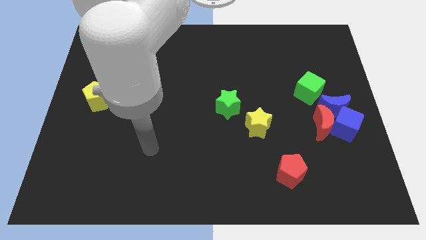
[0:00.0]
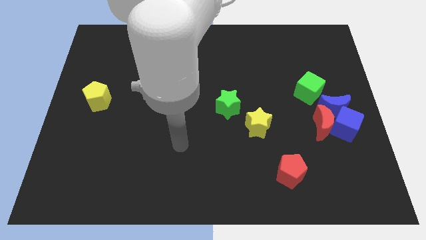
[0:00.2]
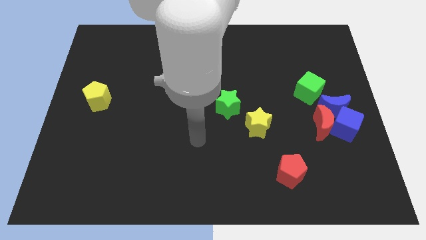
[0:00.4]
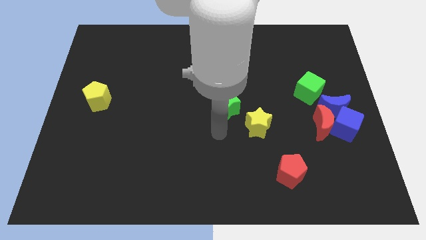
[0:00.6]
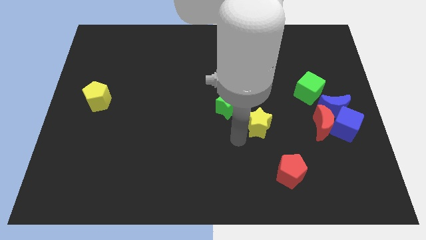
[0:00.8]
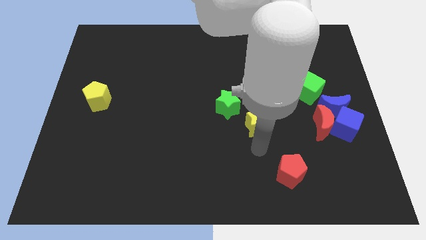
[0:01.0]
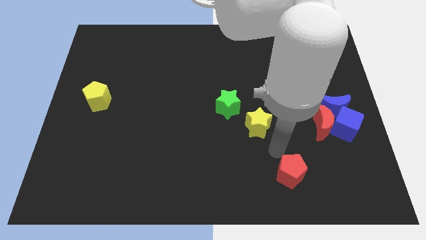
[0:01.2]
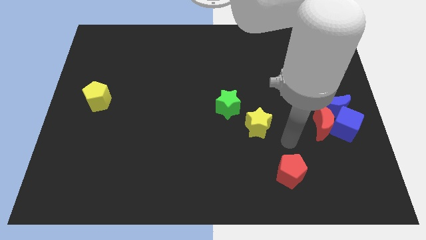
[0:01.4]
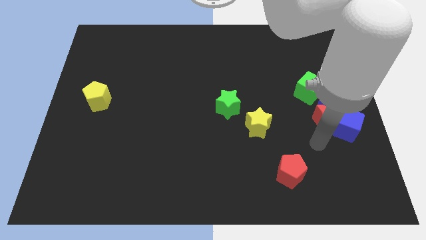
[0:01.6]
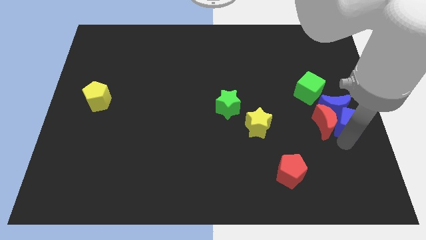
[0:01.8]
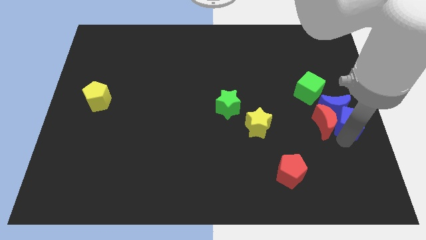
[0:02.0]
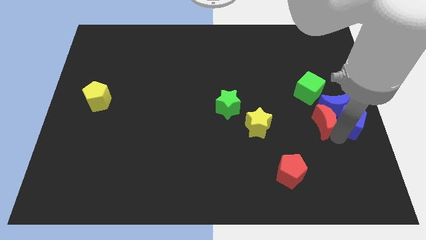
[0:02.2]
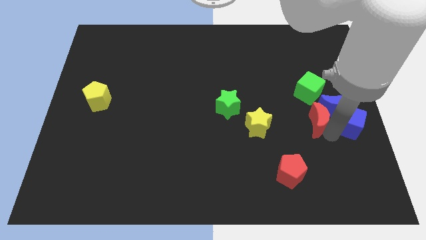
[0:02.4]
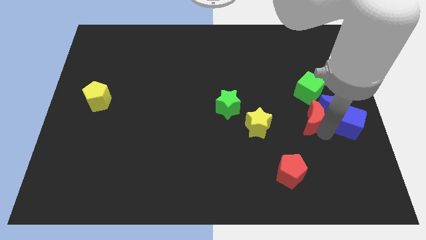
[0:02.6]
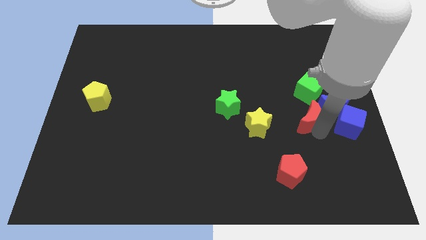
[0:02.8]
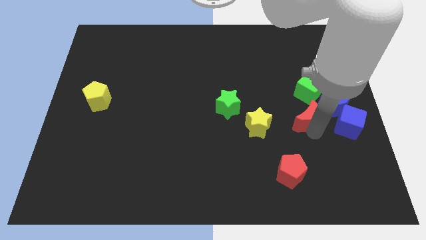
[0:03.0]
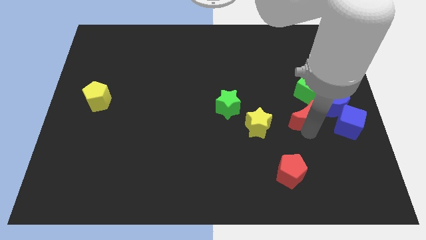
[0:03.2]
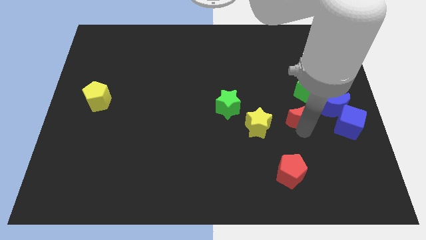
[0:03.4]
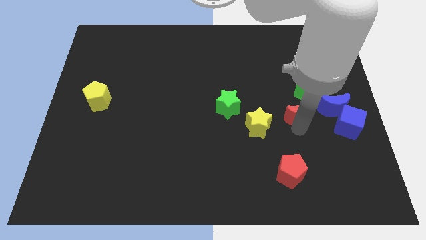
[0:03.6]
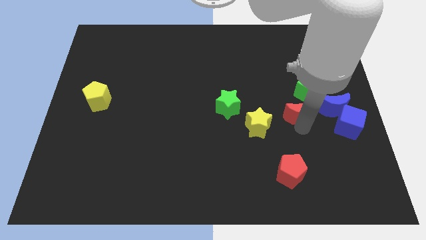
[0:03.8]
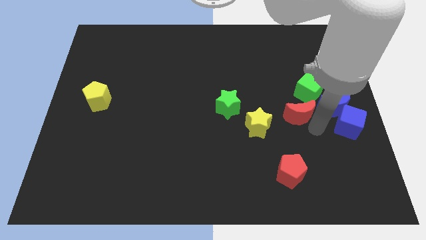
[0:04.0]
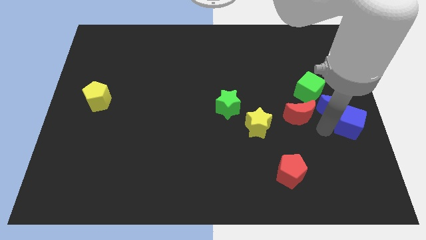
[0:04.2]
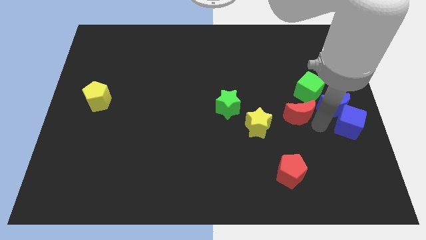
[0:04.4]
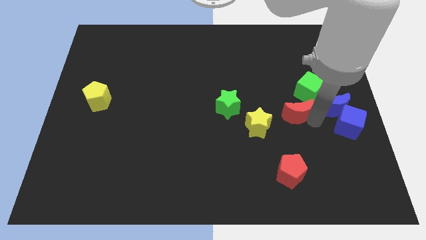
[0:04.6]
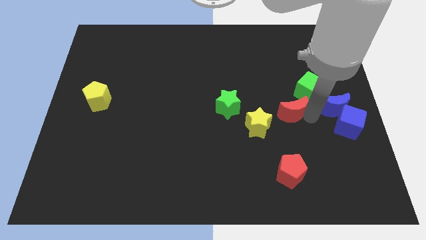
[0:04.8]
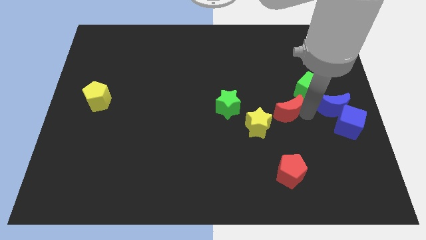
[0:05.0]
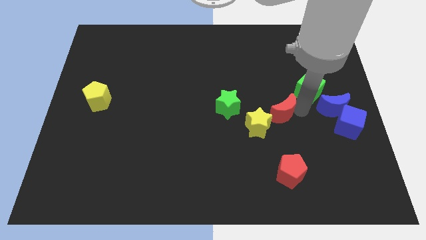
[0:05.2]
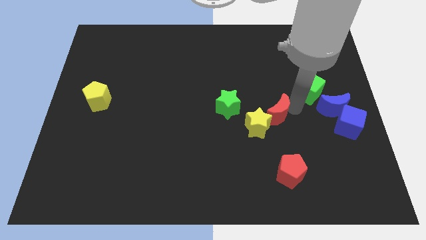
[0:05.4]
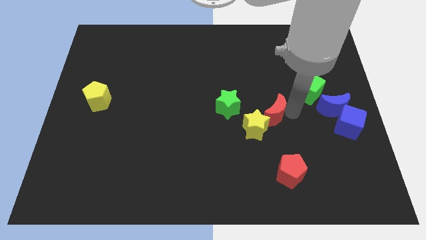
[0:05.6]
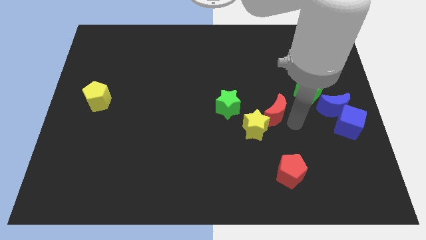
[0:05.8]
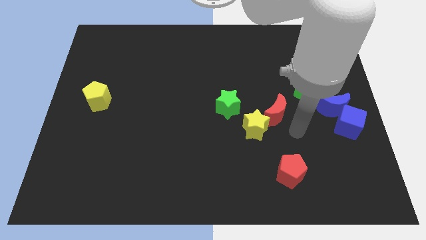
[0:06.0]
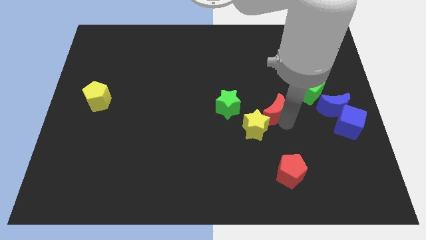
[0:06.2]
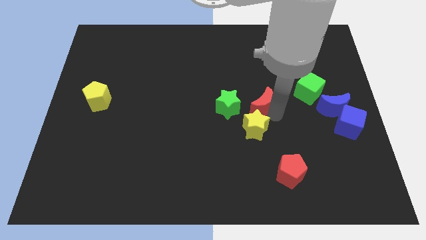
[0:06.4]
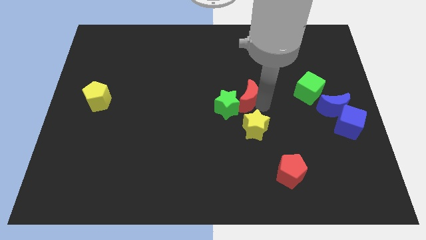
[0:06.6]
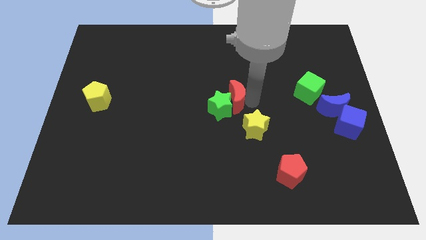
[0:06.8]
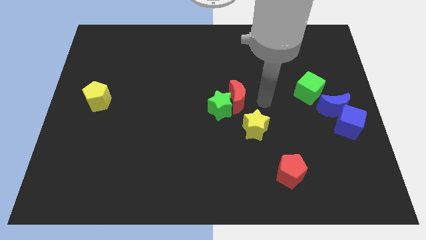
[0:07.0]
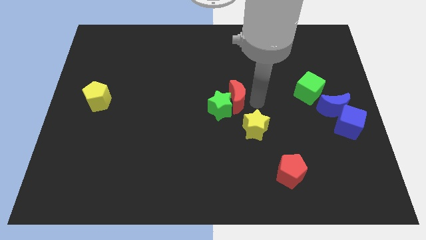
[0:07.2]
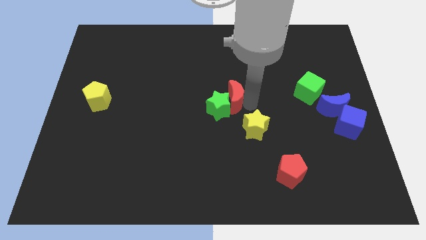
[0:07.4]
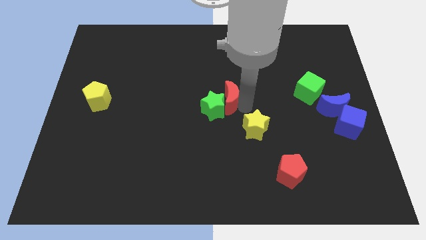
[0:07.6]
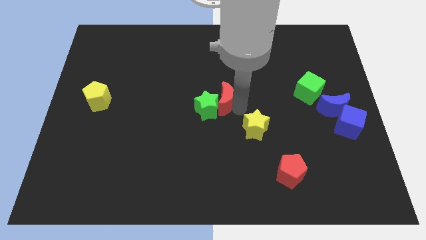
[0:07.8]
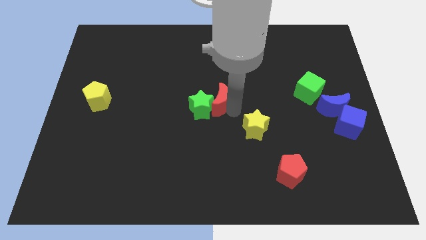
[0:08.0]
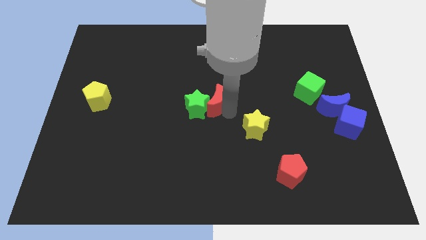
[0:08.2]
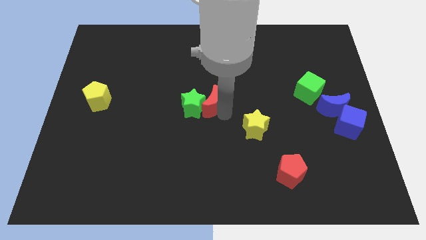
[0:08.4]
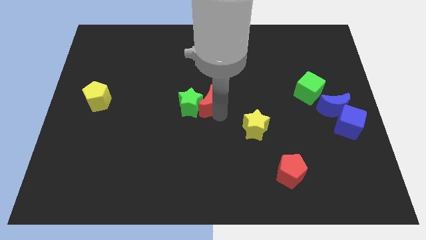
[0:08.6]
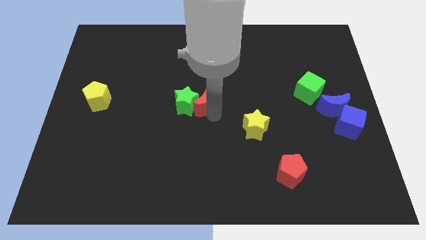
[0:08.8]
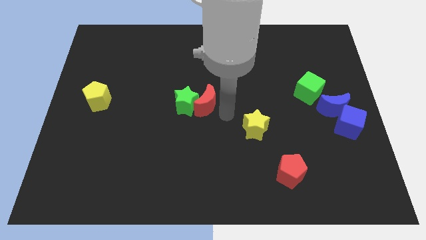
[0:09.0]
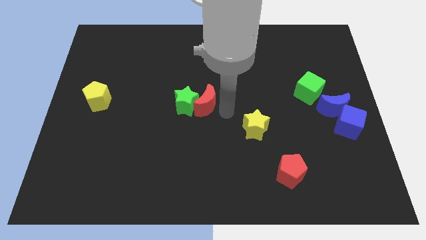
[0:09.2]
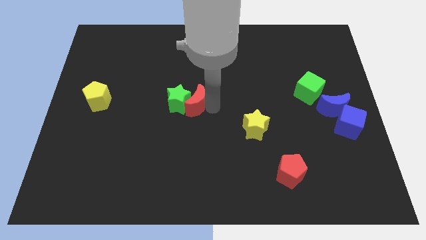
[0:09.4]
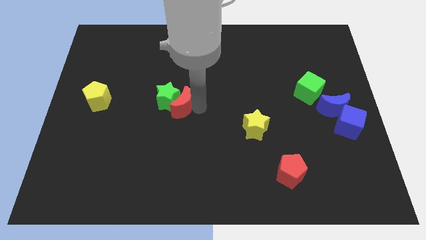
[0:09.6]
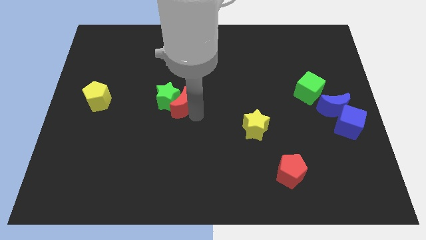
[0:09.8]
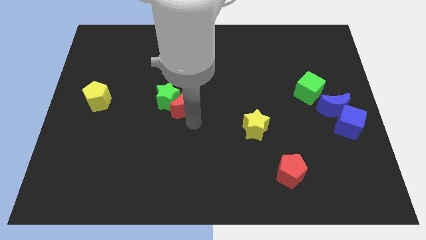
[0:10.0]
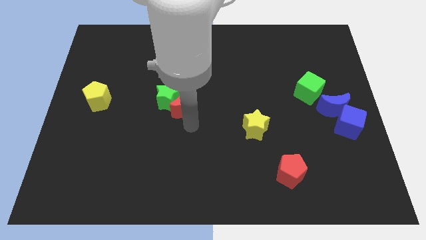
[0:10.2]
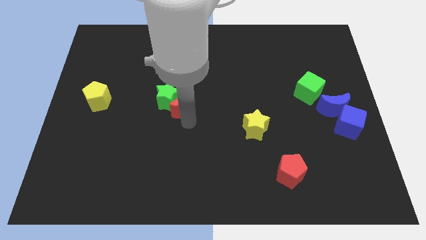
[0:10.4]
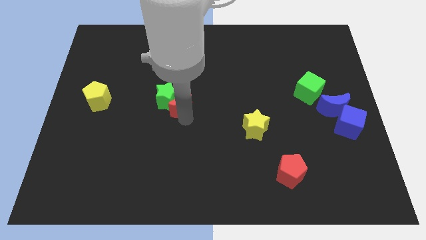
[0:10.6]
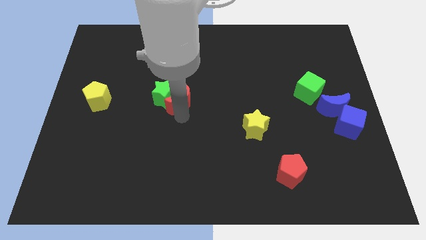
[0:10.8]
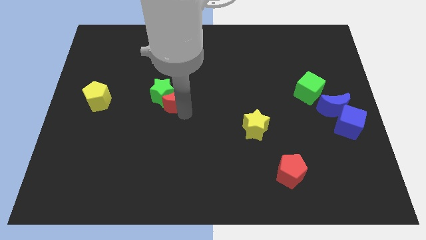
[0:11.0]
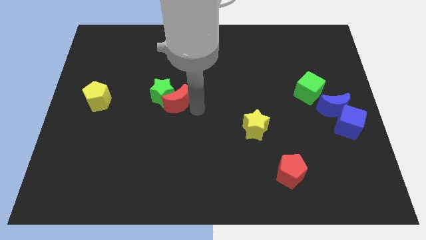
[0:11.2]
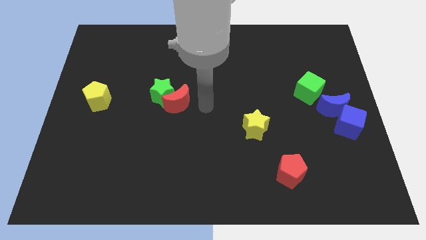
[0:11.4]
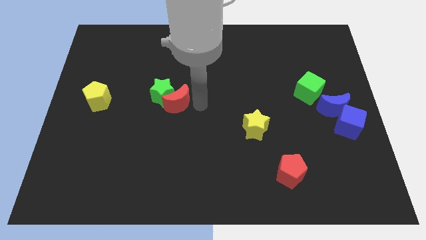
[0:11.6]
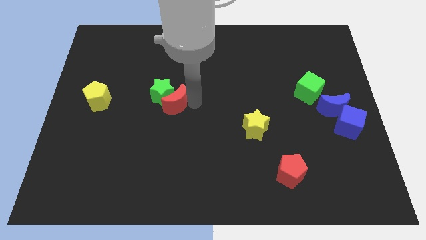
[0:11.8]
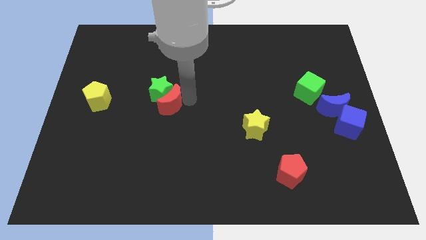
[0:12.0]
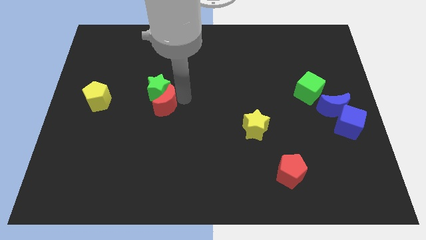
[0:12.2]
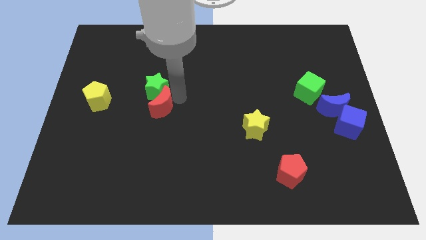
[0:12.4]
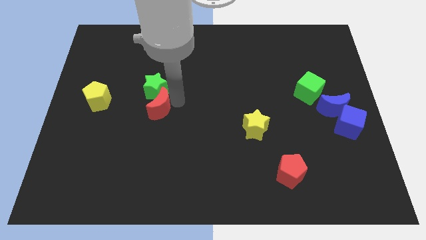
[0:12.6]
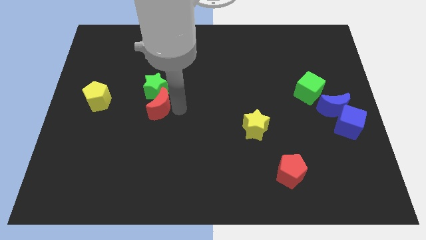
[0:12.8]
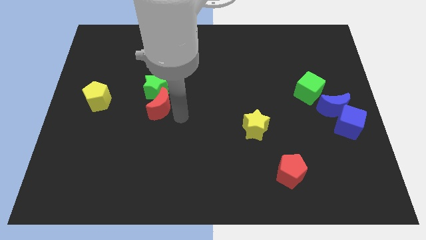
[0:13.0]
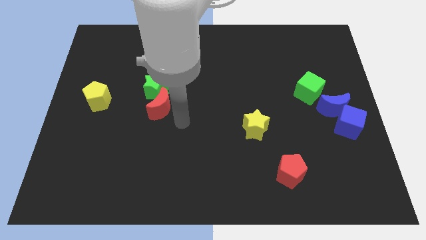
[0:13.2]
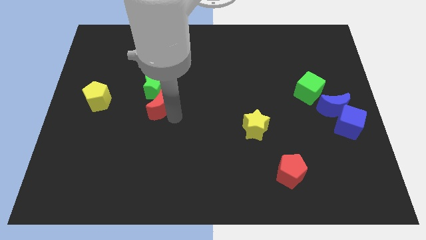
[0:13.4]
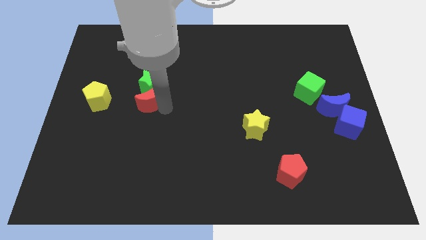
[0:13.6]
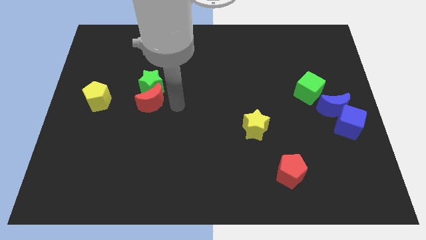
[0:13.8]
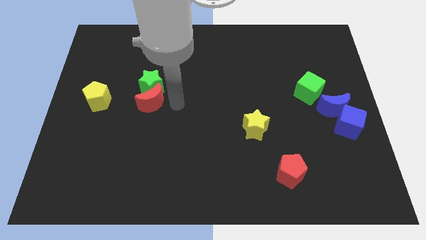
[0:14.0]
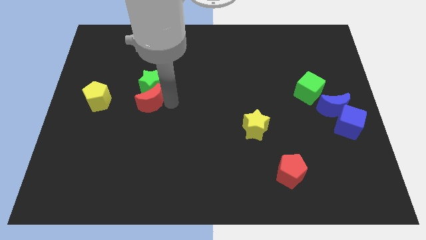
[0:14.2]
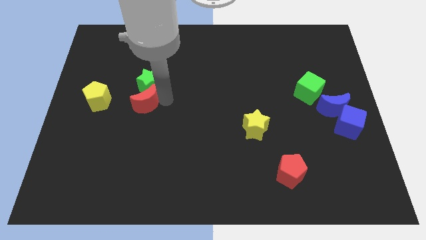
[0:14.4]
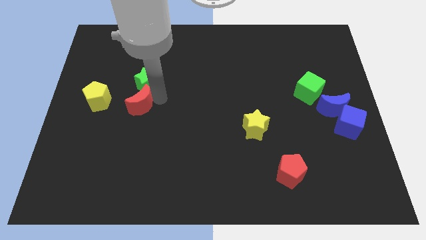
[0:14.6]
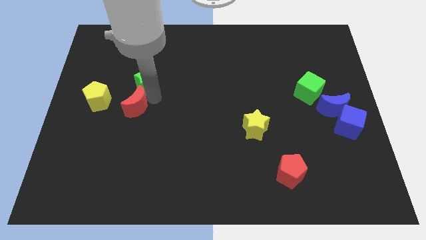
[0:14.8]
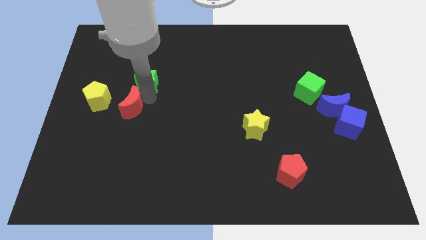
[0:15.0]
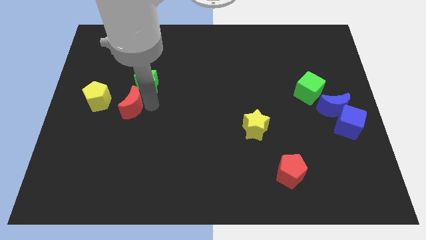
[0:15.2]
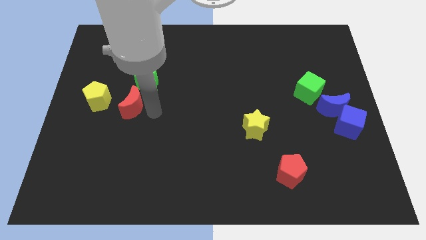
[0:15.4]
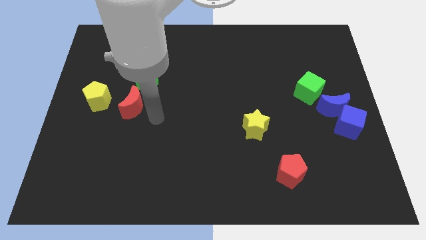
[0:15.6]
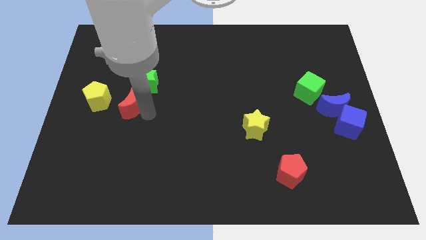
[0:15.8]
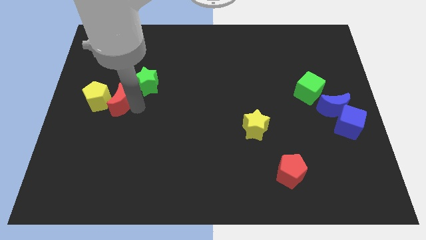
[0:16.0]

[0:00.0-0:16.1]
slide the red moon towards the yellow pentagon
